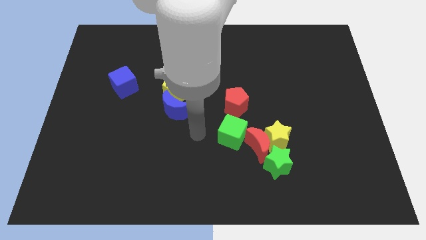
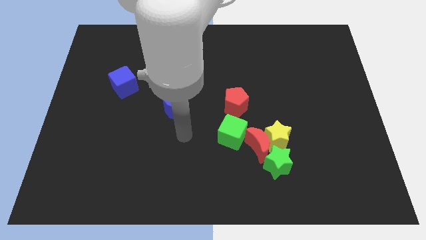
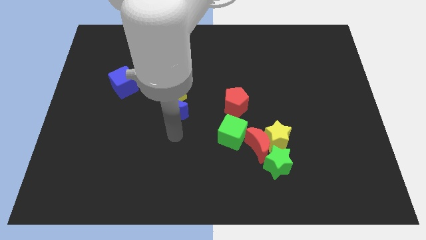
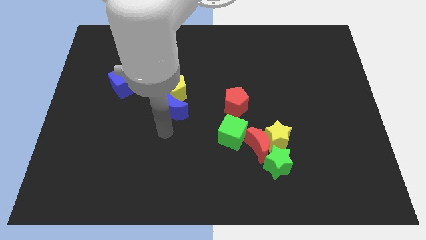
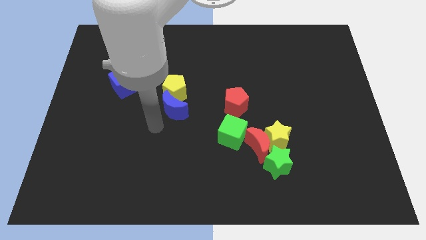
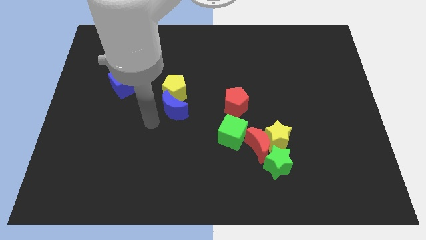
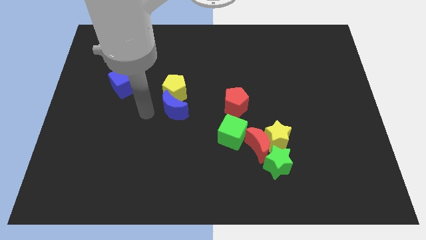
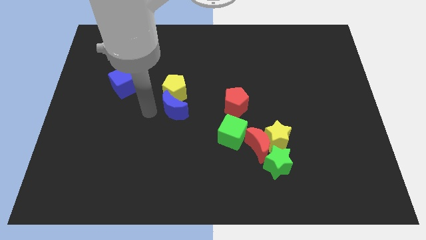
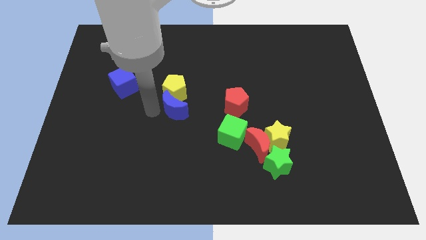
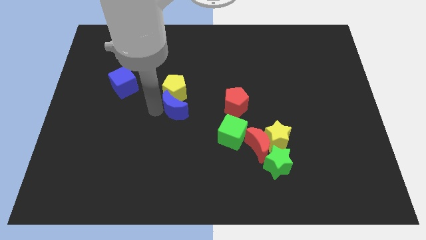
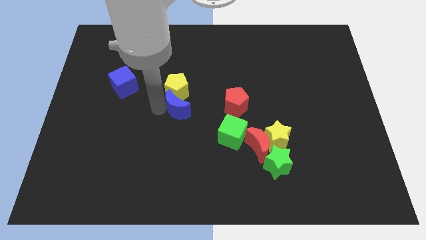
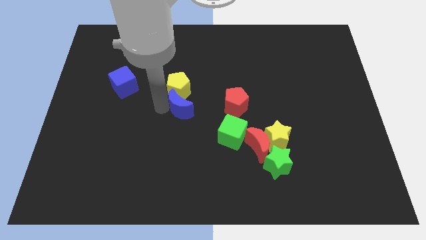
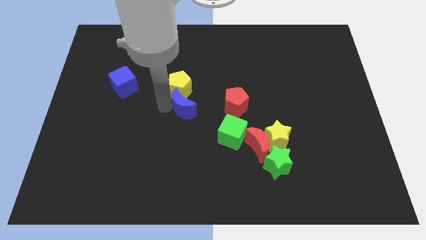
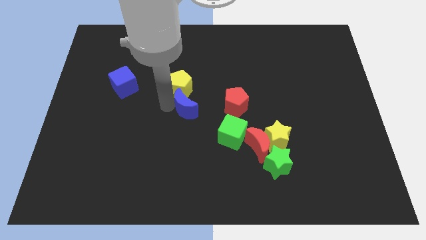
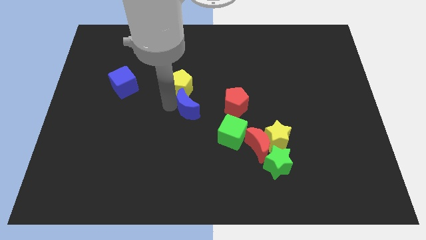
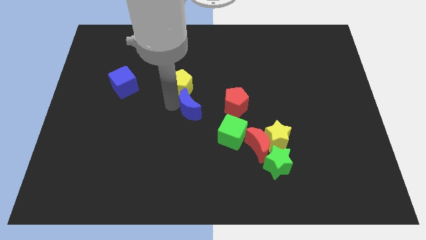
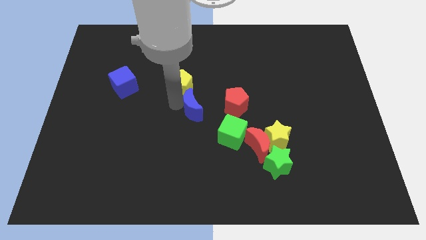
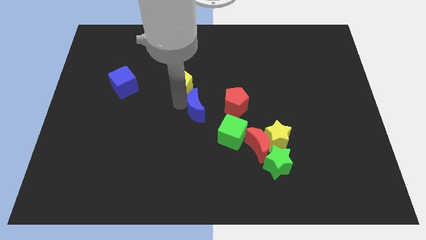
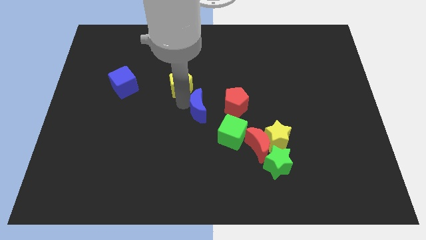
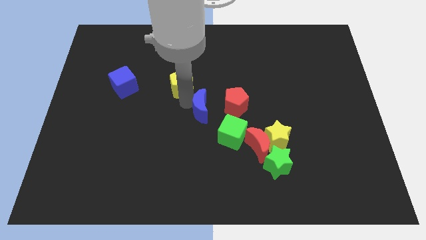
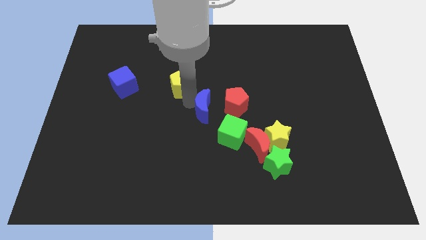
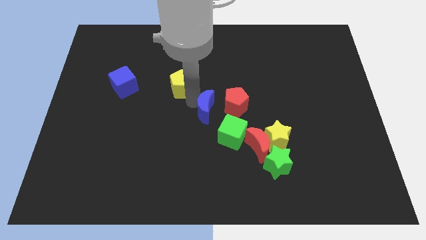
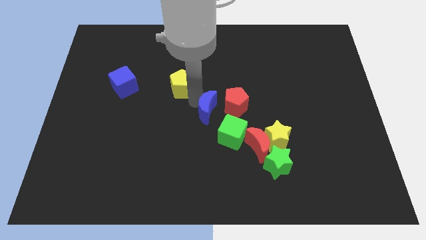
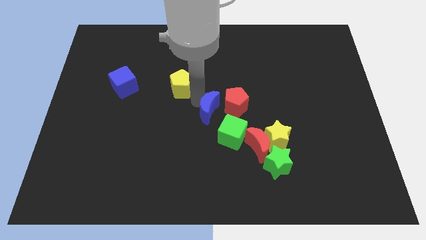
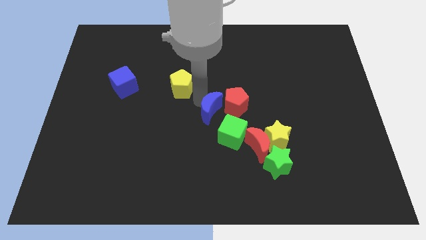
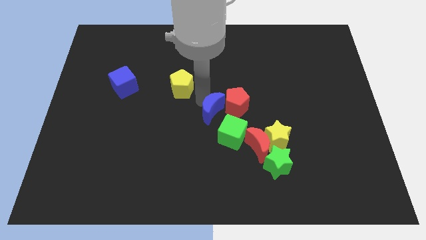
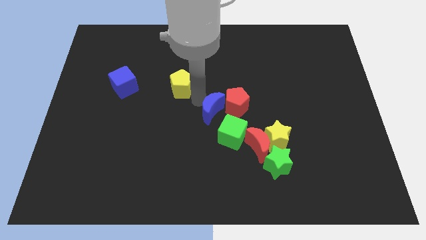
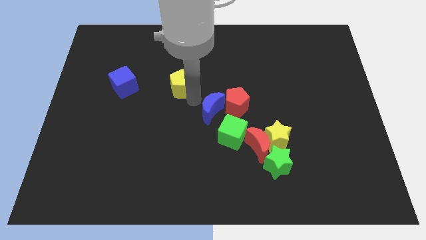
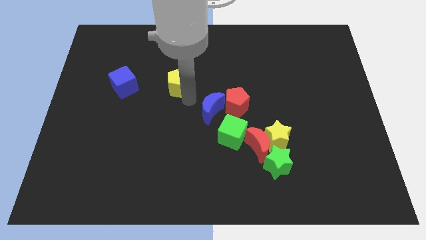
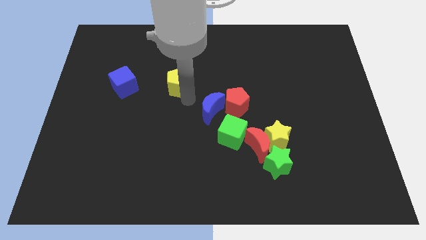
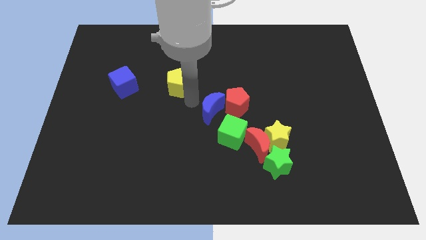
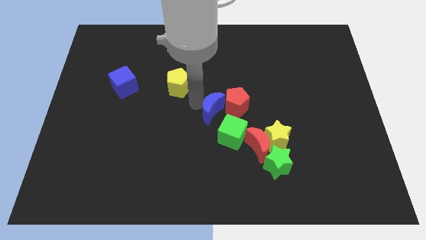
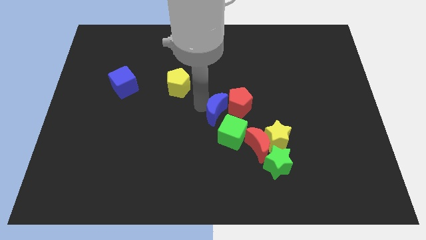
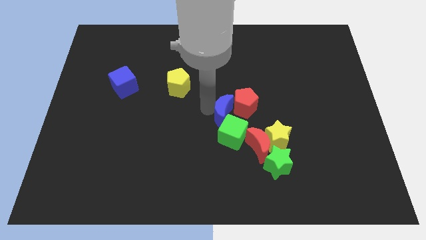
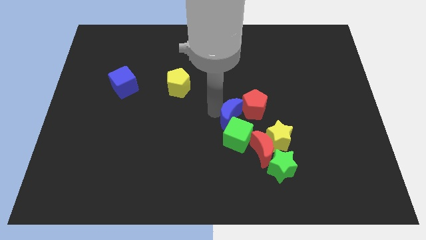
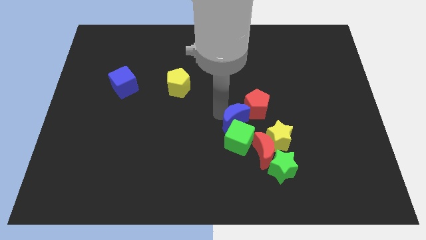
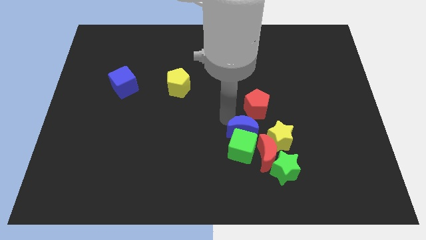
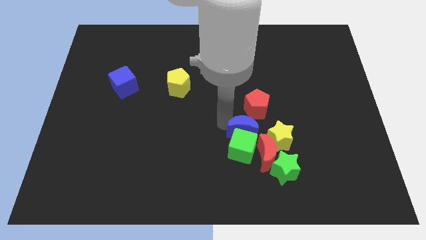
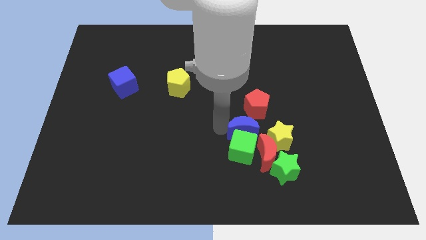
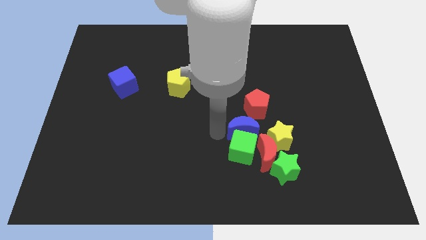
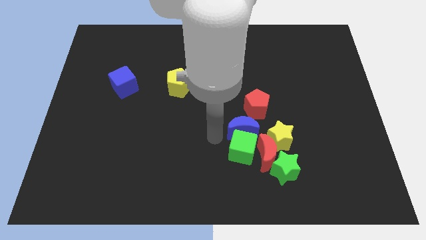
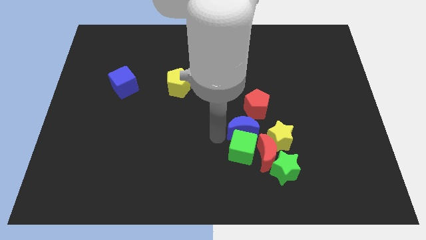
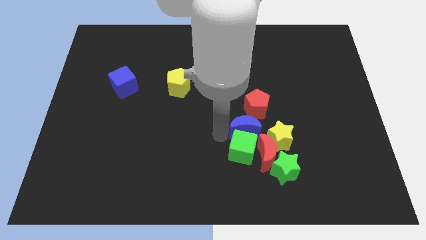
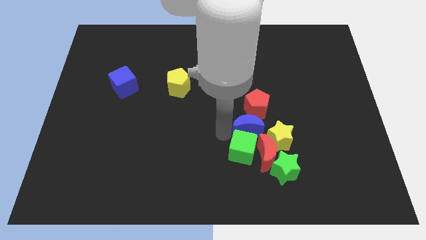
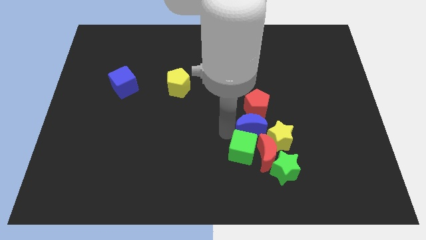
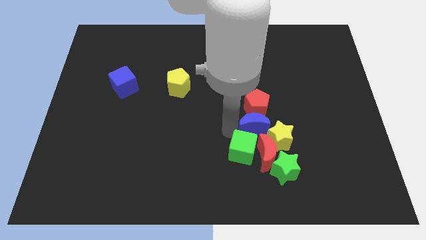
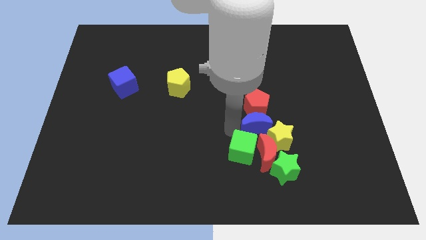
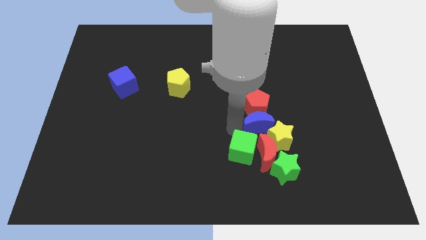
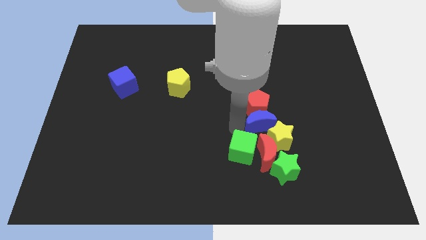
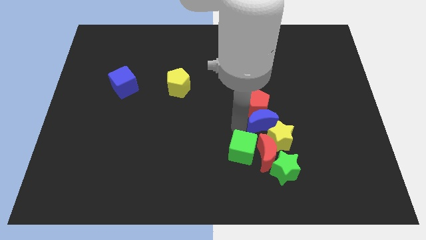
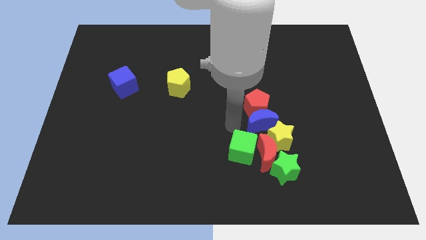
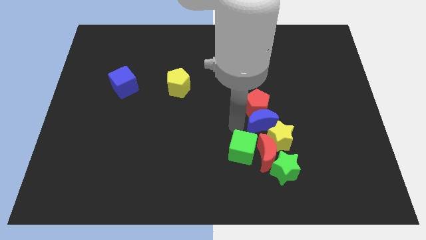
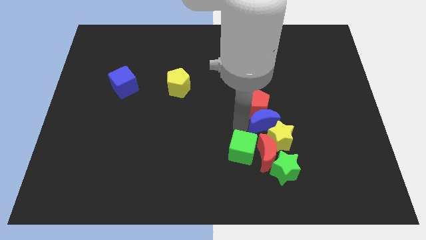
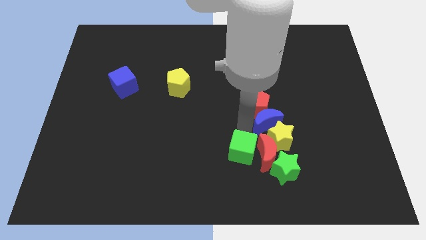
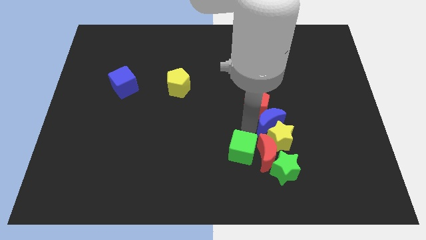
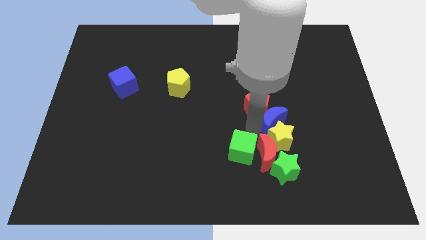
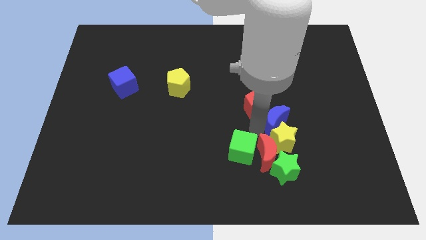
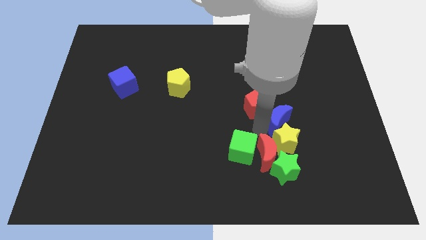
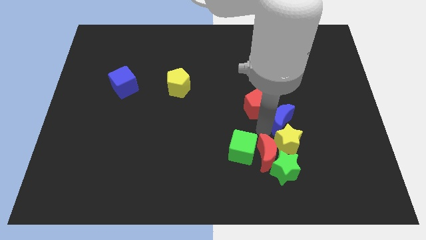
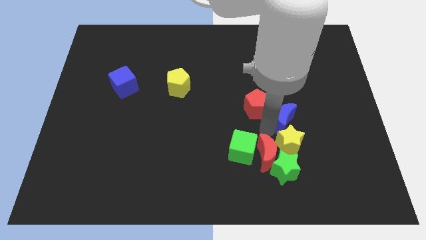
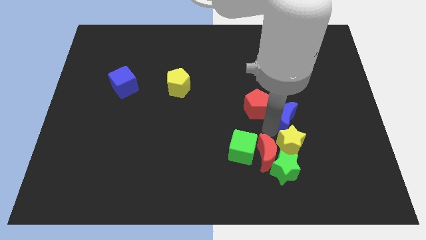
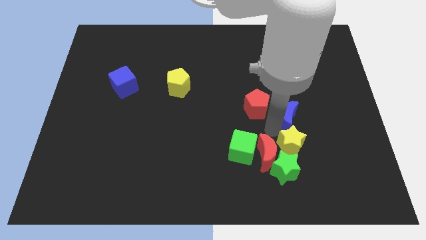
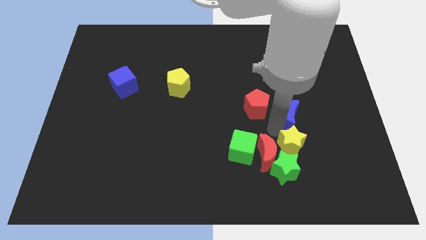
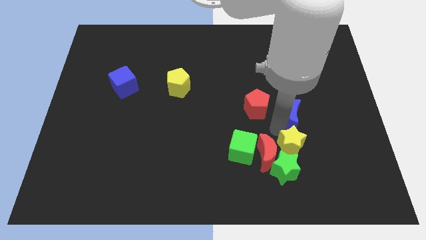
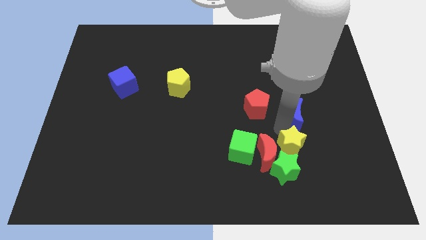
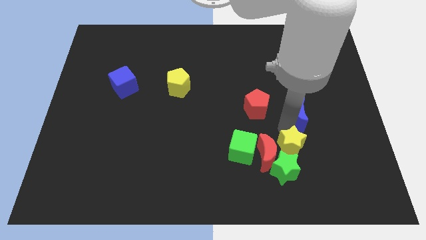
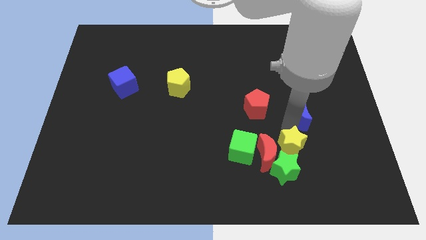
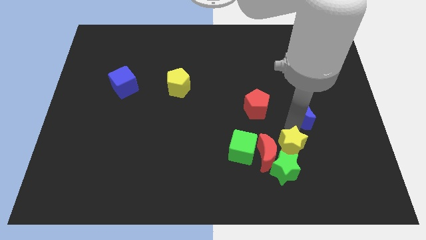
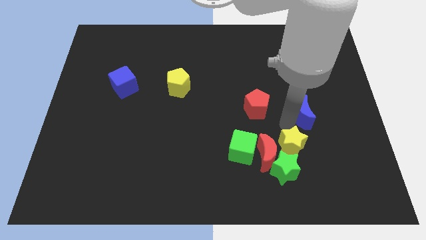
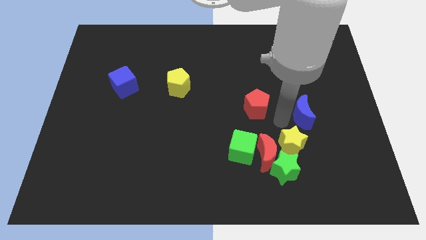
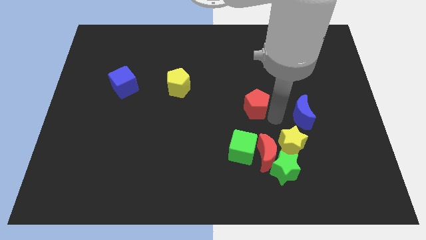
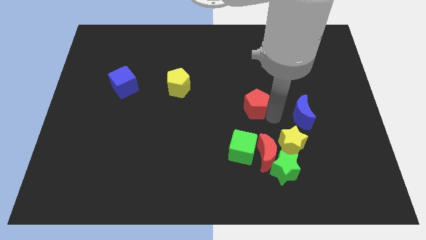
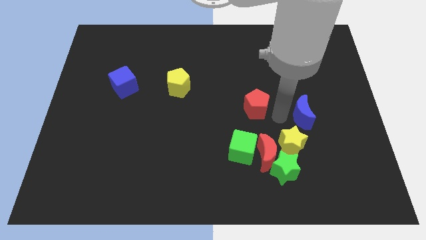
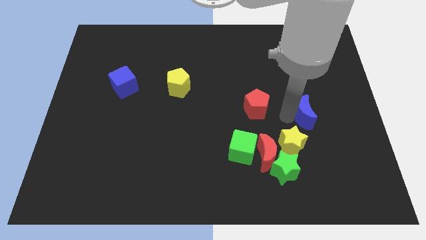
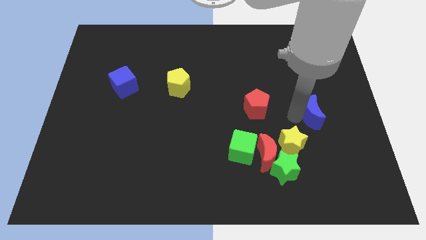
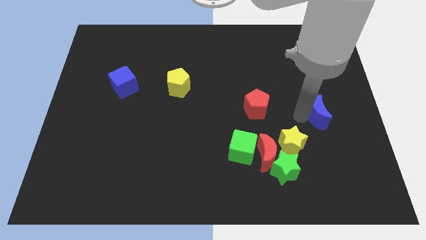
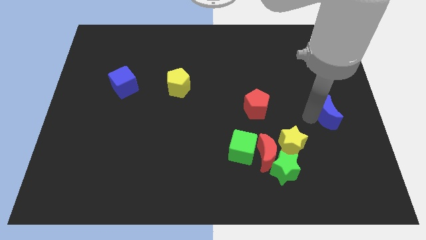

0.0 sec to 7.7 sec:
put the blue moon to the right side of the board

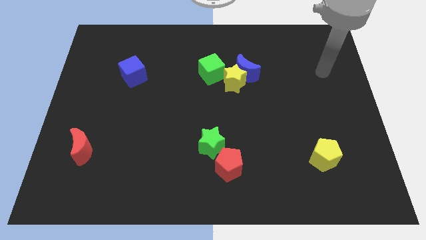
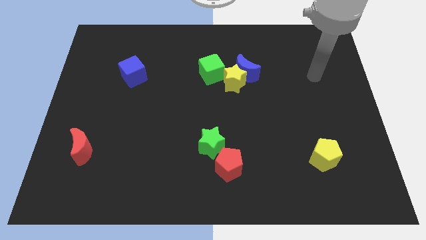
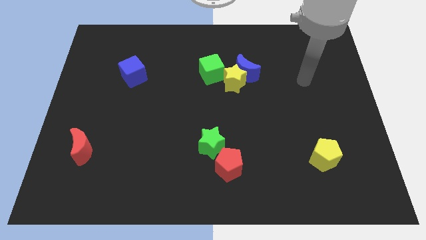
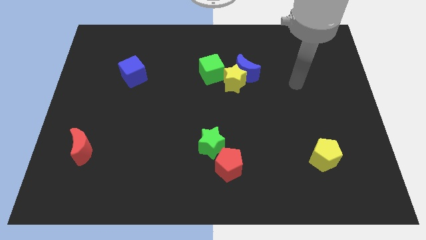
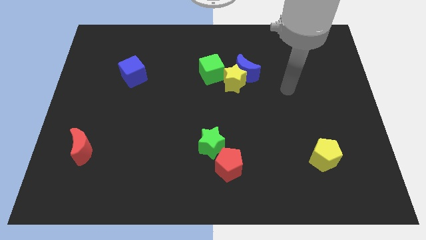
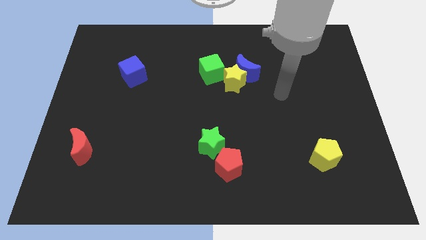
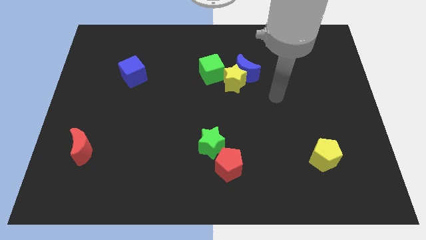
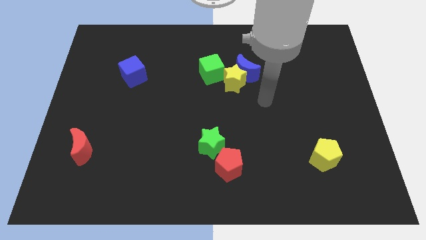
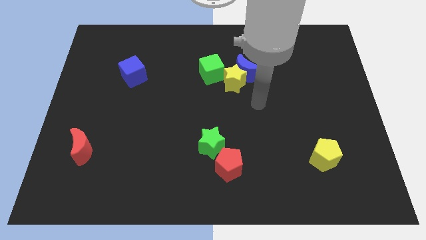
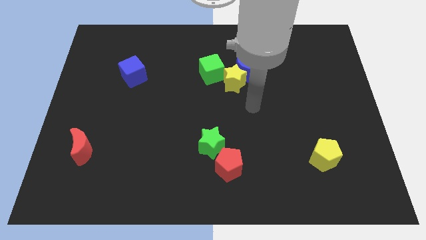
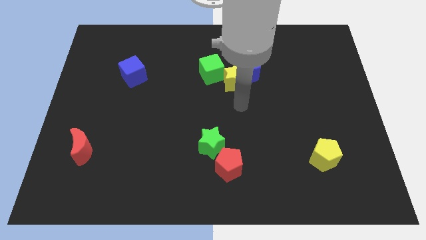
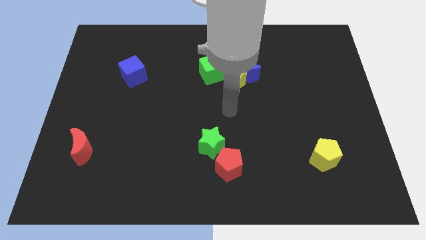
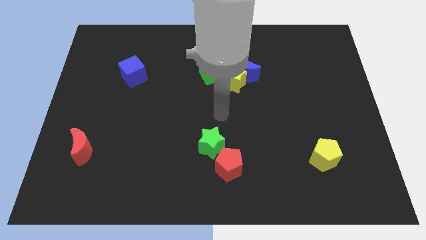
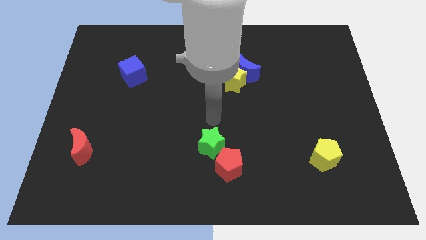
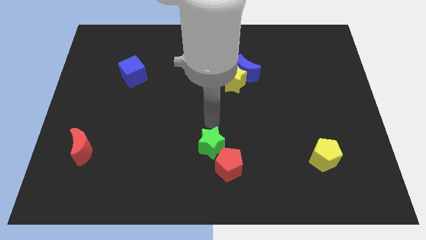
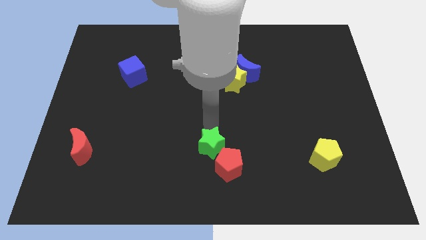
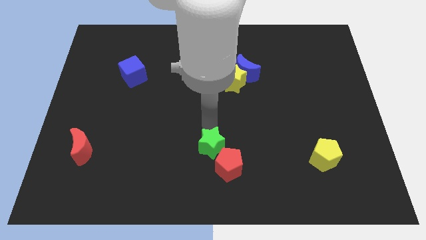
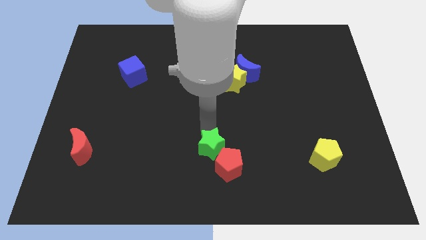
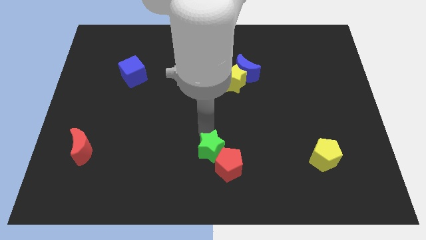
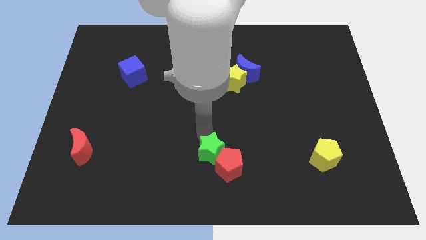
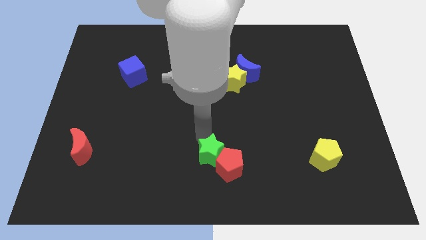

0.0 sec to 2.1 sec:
put the green star to the bottom
